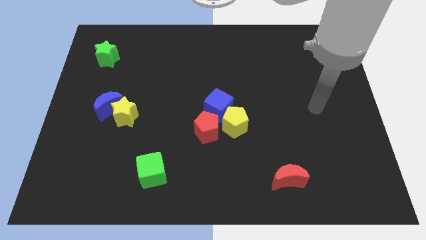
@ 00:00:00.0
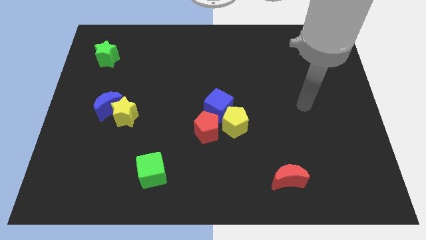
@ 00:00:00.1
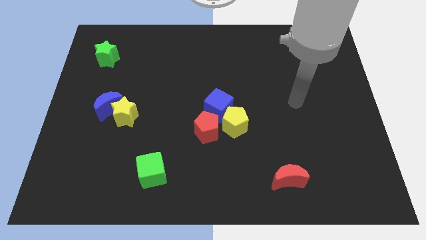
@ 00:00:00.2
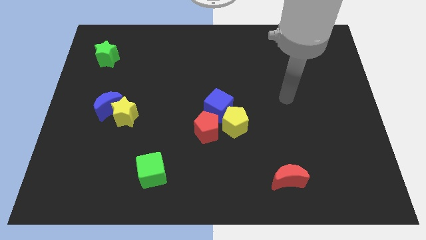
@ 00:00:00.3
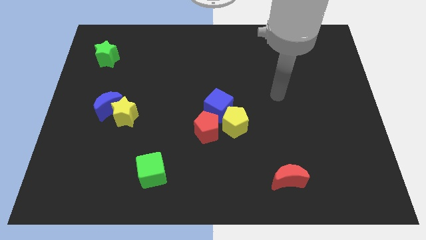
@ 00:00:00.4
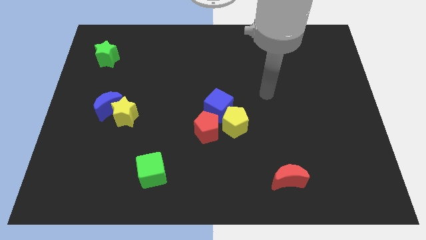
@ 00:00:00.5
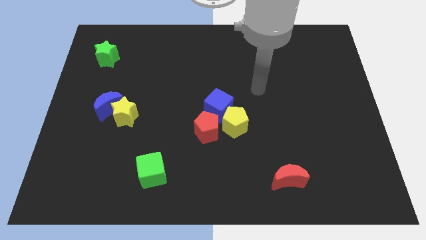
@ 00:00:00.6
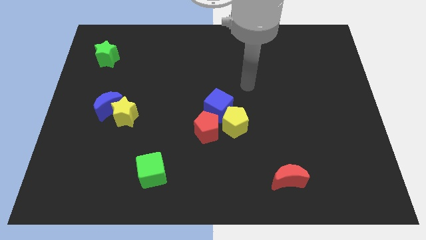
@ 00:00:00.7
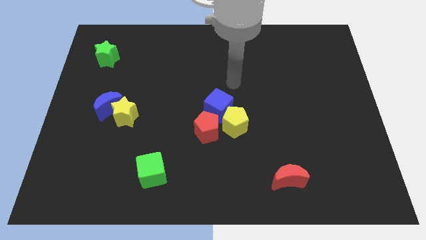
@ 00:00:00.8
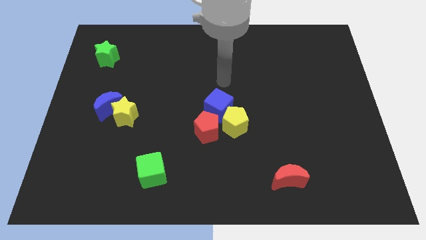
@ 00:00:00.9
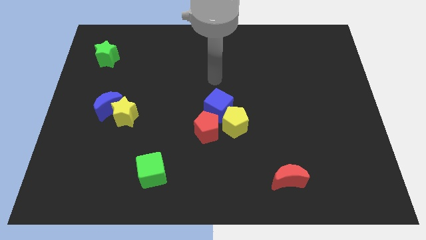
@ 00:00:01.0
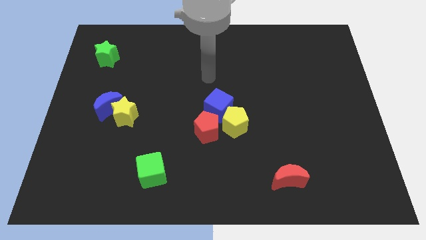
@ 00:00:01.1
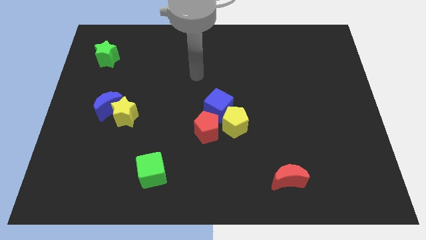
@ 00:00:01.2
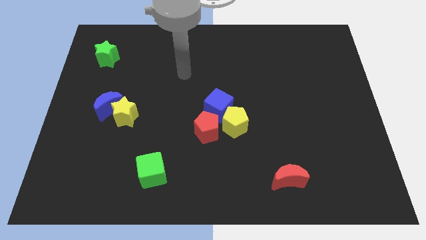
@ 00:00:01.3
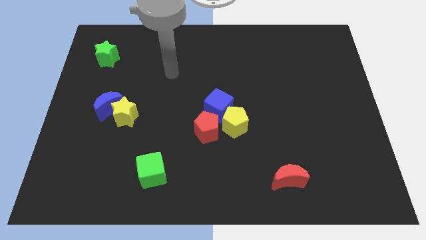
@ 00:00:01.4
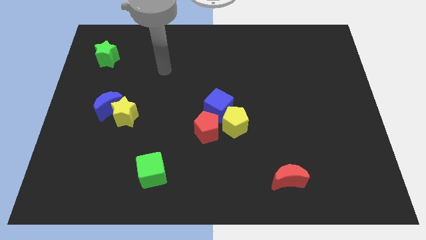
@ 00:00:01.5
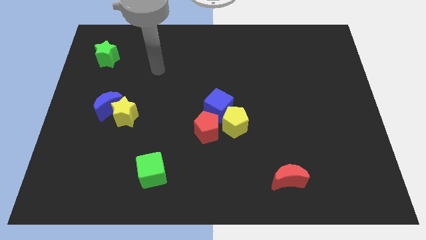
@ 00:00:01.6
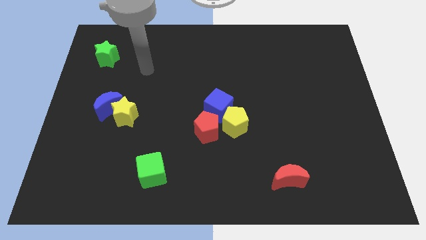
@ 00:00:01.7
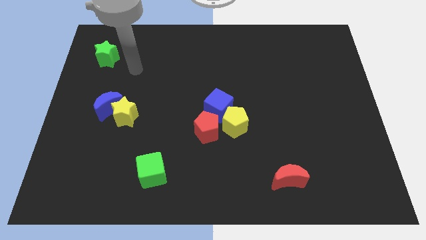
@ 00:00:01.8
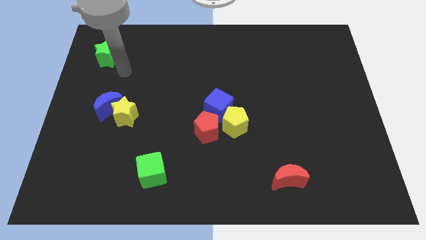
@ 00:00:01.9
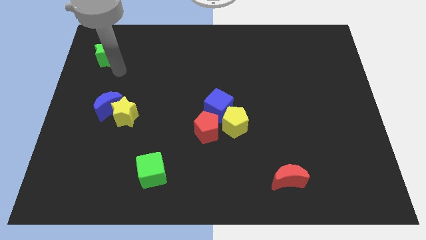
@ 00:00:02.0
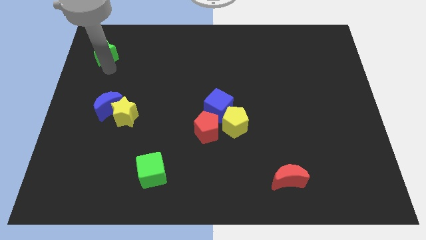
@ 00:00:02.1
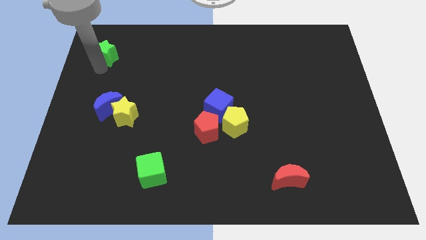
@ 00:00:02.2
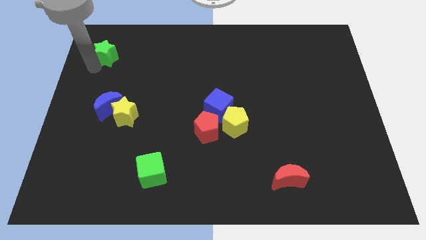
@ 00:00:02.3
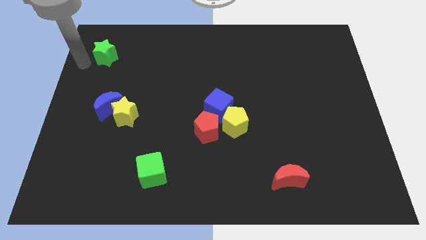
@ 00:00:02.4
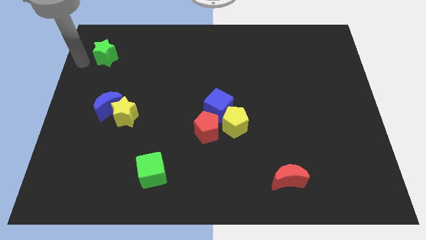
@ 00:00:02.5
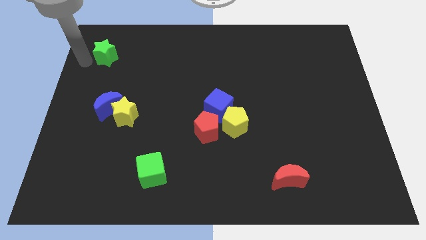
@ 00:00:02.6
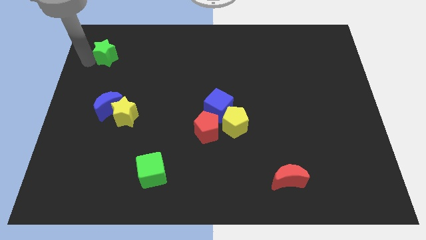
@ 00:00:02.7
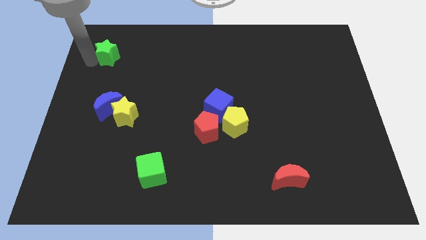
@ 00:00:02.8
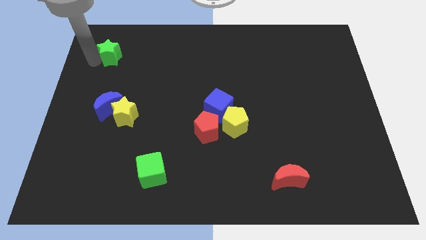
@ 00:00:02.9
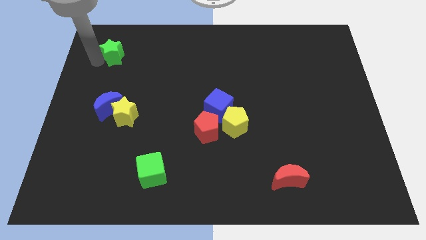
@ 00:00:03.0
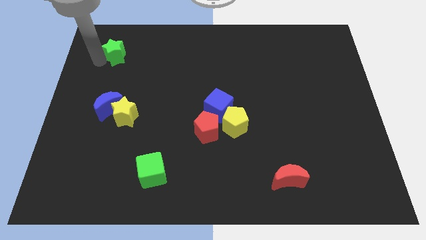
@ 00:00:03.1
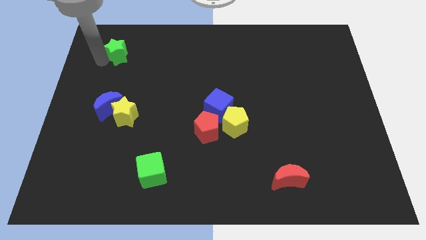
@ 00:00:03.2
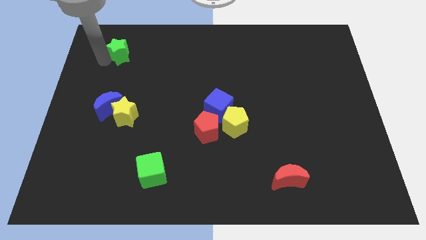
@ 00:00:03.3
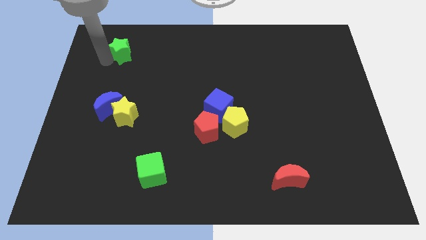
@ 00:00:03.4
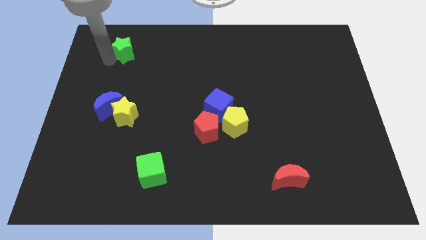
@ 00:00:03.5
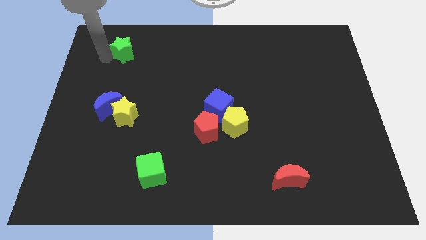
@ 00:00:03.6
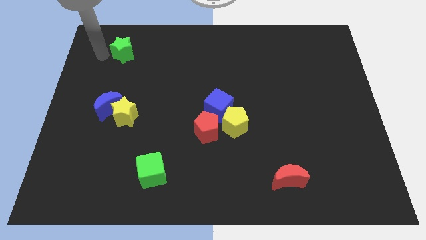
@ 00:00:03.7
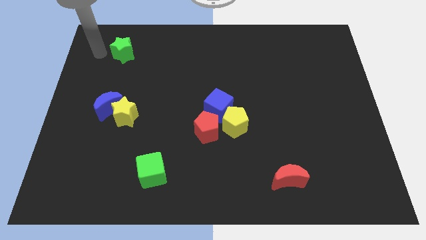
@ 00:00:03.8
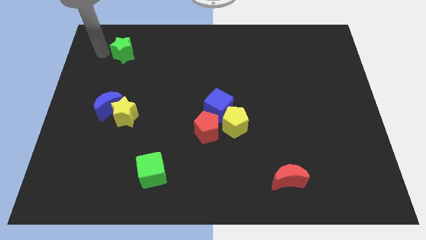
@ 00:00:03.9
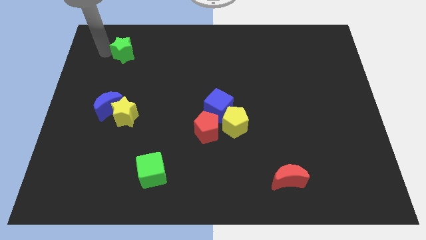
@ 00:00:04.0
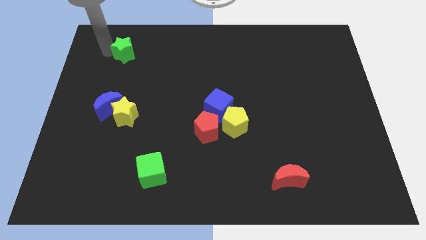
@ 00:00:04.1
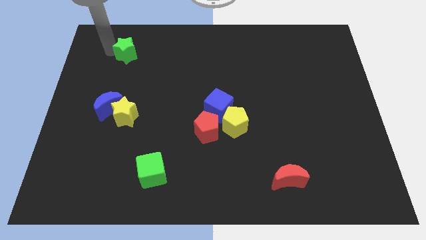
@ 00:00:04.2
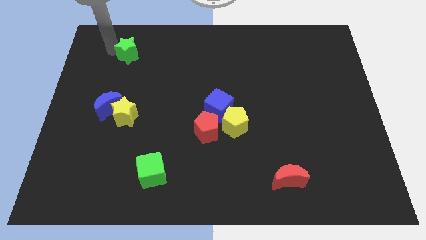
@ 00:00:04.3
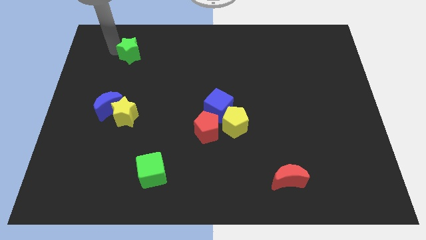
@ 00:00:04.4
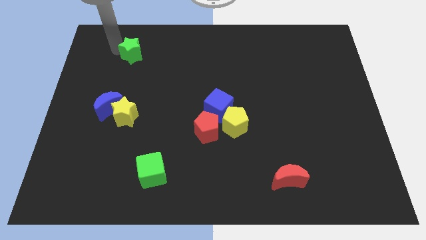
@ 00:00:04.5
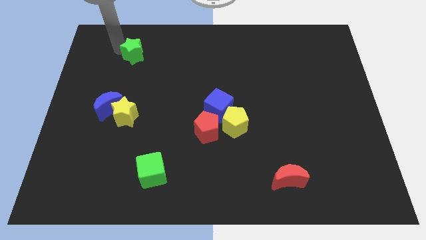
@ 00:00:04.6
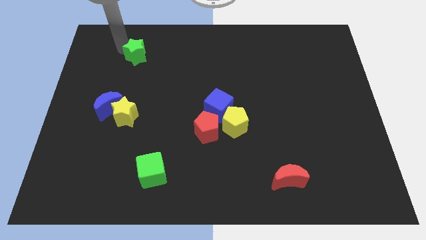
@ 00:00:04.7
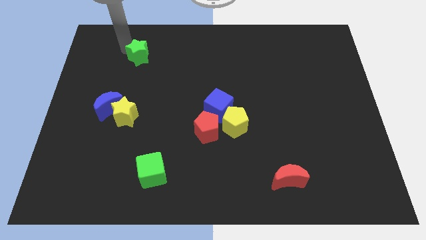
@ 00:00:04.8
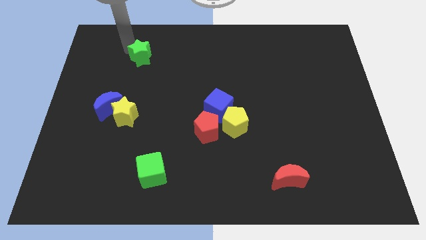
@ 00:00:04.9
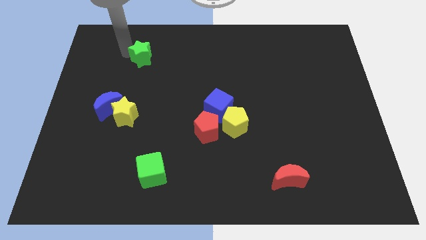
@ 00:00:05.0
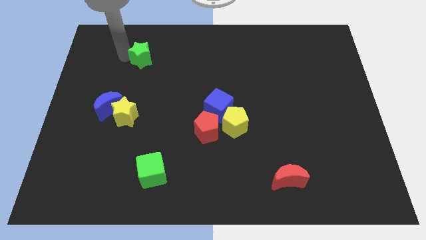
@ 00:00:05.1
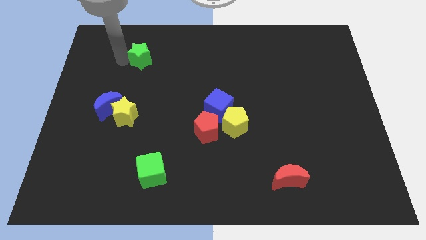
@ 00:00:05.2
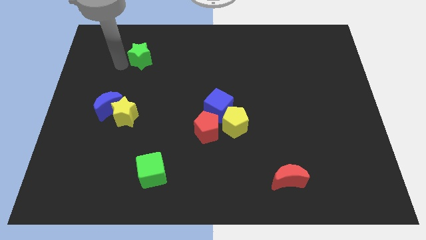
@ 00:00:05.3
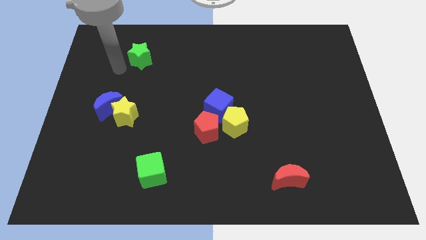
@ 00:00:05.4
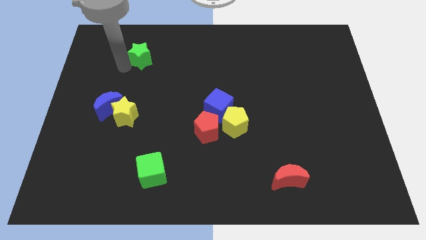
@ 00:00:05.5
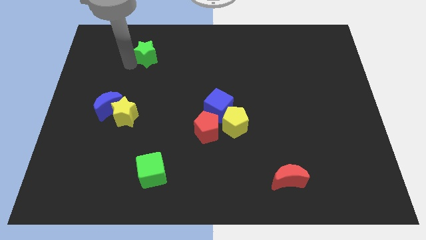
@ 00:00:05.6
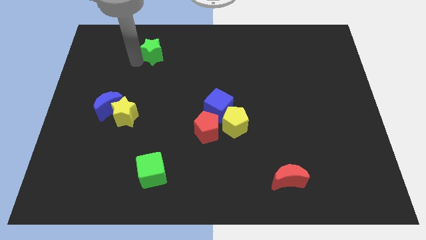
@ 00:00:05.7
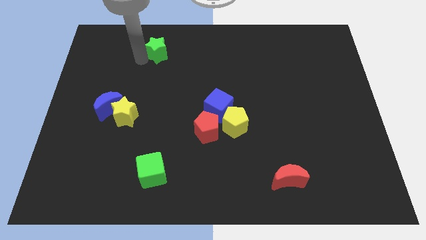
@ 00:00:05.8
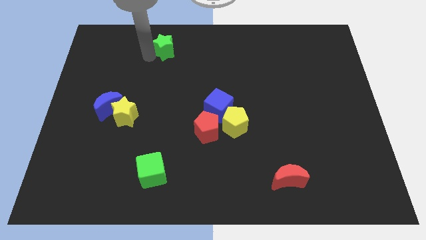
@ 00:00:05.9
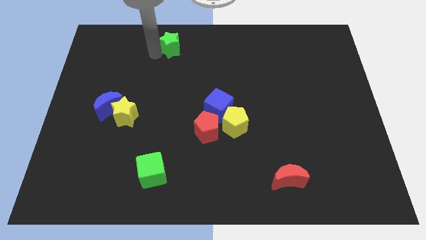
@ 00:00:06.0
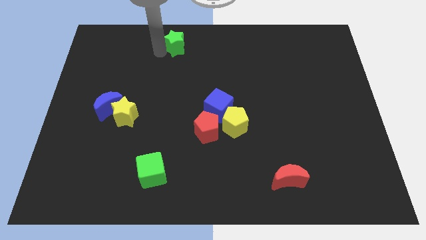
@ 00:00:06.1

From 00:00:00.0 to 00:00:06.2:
put the green star to the top side

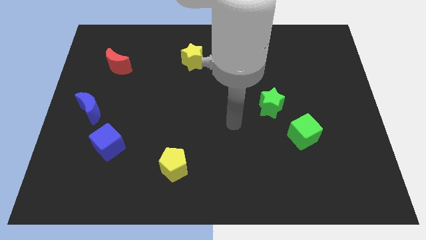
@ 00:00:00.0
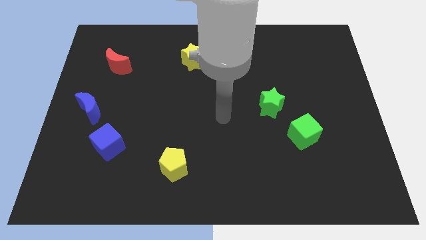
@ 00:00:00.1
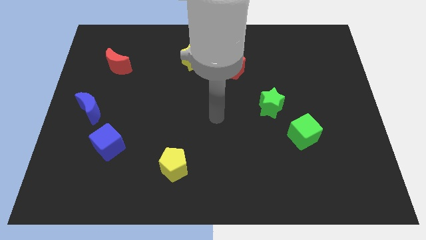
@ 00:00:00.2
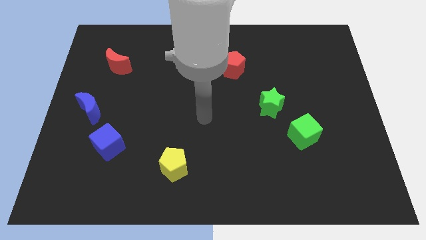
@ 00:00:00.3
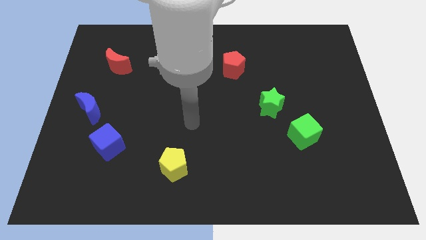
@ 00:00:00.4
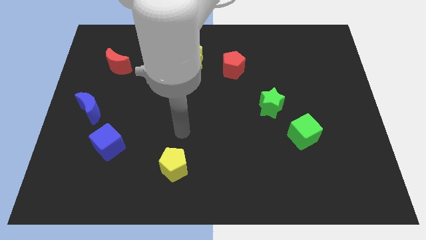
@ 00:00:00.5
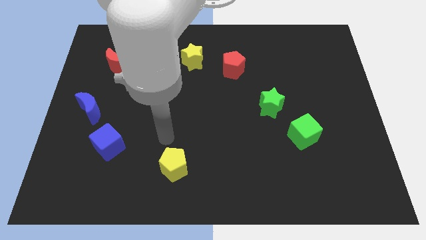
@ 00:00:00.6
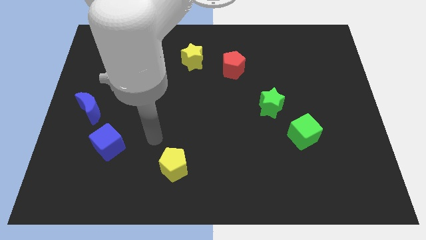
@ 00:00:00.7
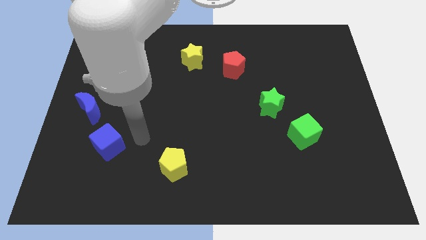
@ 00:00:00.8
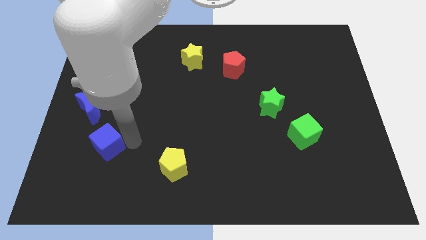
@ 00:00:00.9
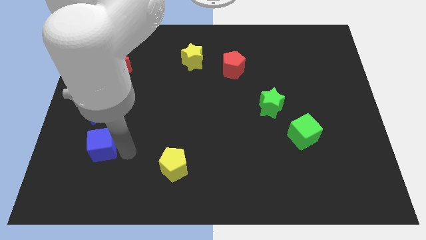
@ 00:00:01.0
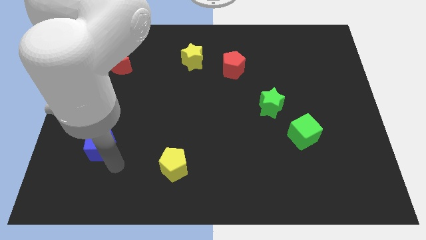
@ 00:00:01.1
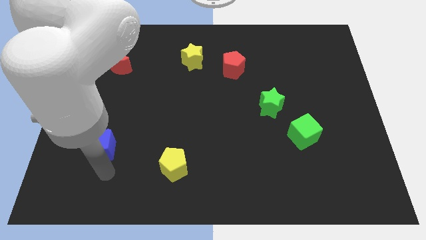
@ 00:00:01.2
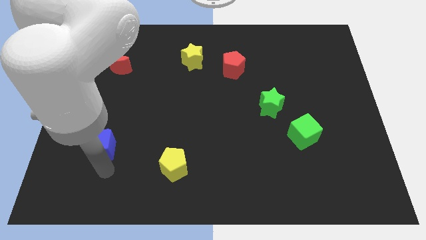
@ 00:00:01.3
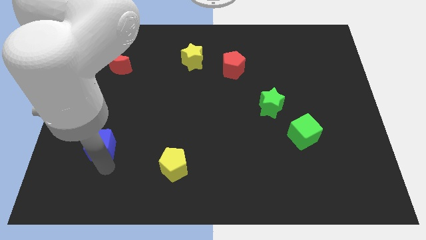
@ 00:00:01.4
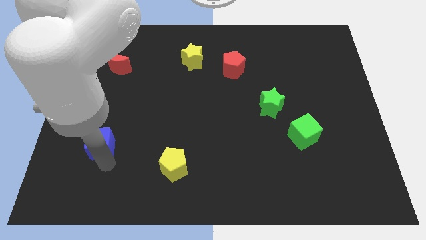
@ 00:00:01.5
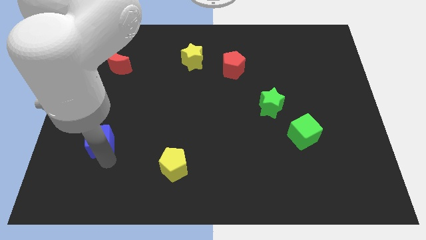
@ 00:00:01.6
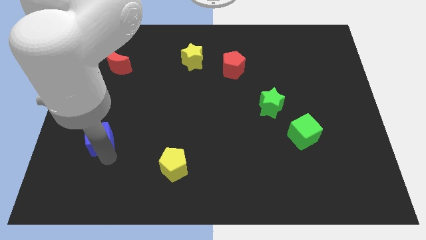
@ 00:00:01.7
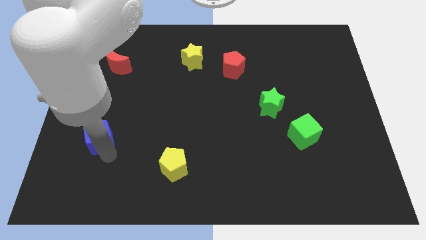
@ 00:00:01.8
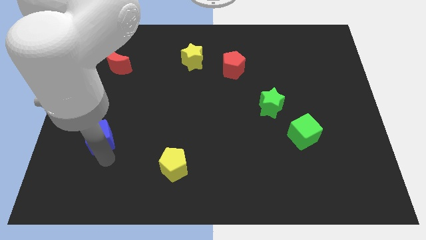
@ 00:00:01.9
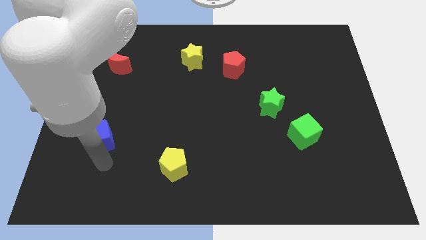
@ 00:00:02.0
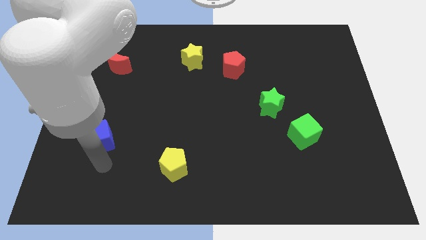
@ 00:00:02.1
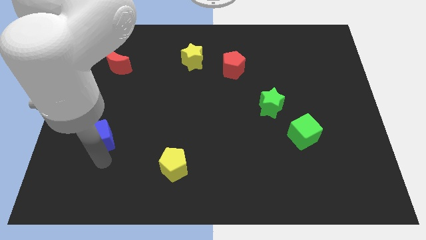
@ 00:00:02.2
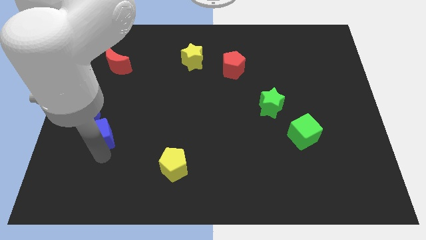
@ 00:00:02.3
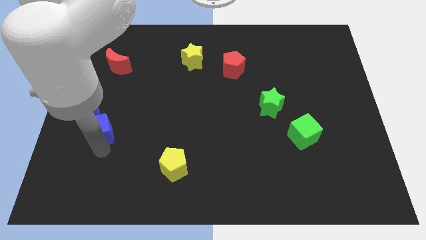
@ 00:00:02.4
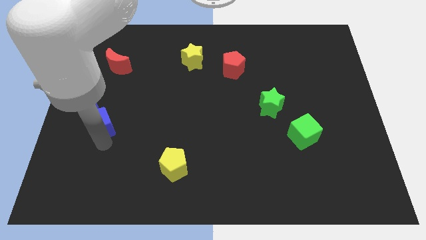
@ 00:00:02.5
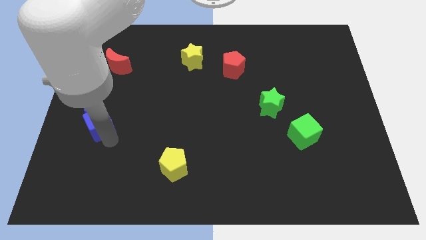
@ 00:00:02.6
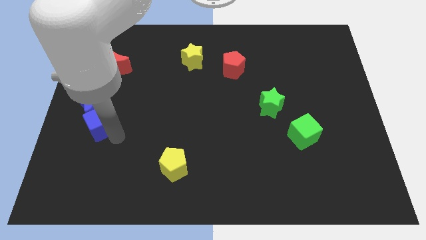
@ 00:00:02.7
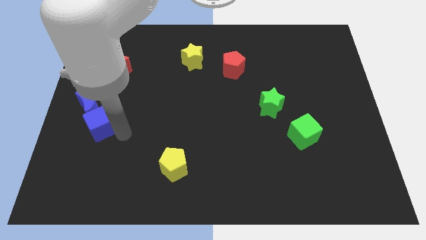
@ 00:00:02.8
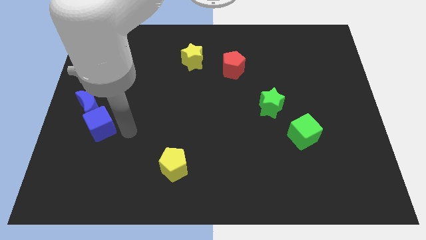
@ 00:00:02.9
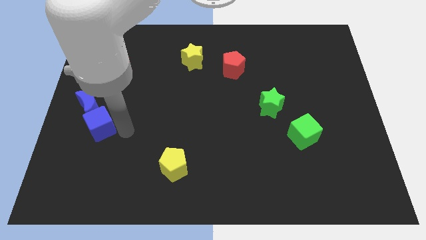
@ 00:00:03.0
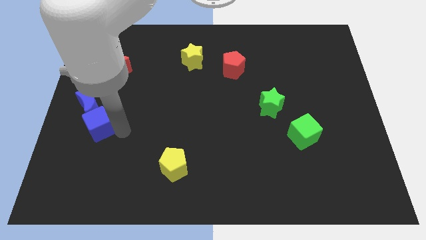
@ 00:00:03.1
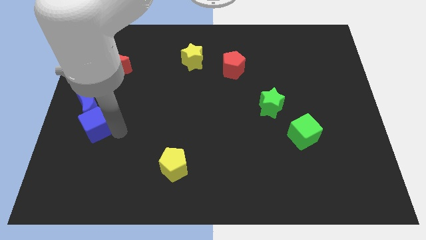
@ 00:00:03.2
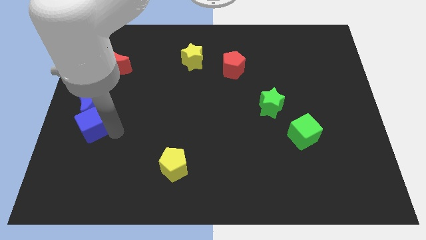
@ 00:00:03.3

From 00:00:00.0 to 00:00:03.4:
push the blue cube to the center left
